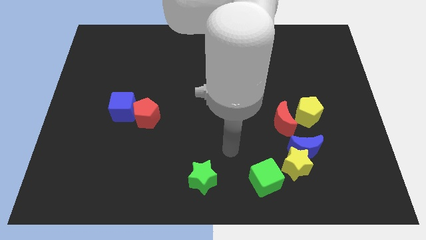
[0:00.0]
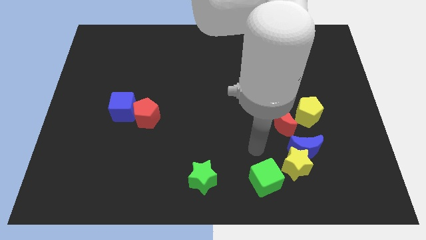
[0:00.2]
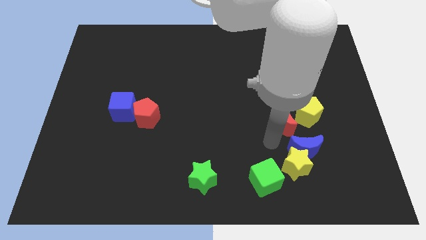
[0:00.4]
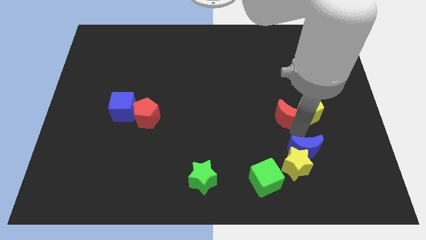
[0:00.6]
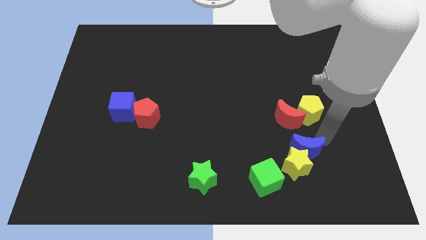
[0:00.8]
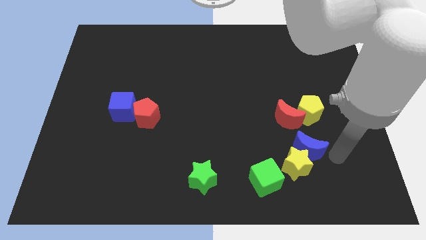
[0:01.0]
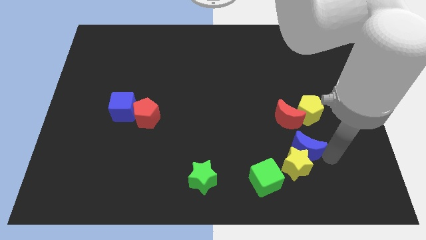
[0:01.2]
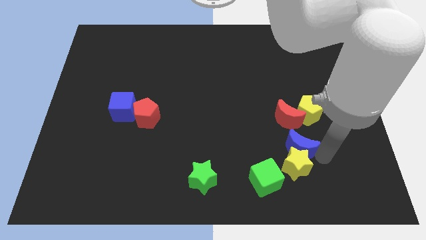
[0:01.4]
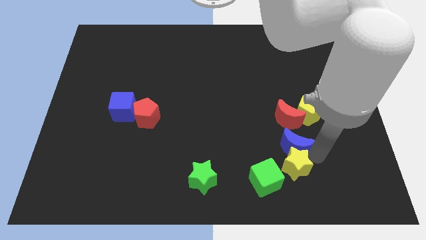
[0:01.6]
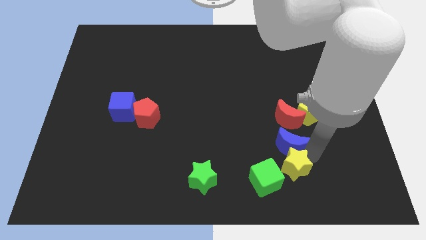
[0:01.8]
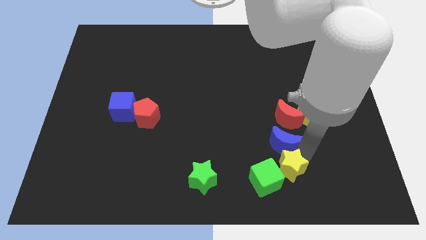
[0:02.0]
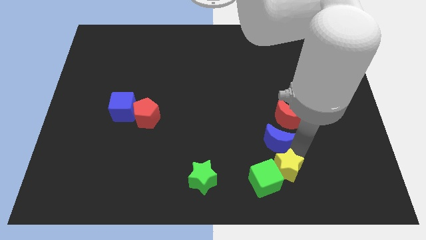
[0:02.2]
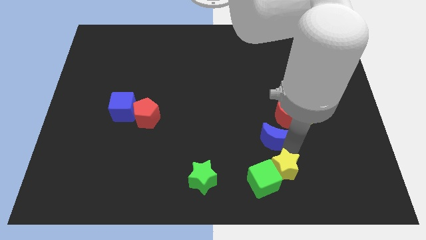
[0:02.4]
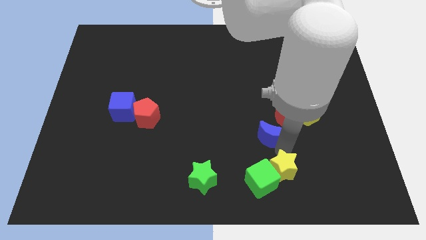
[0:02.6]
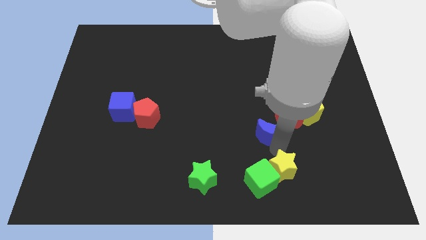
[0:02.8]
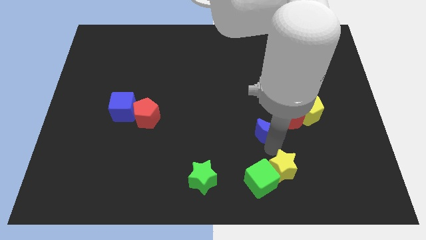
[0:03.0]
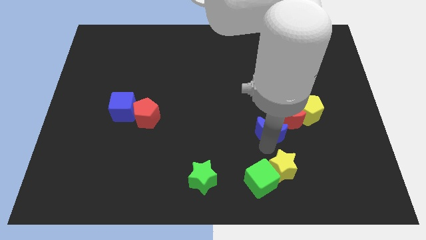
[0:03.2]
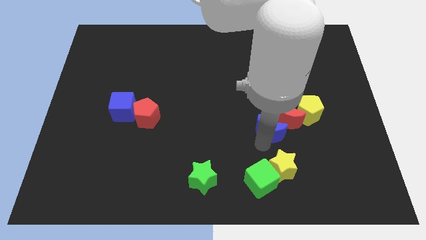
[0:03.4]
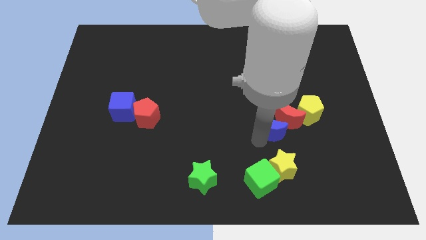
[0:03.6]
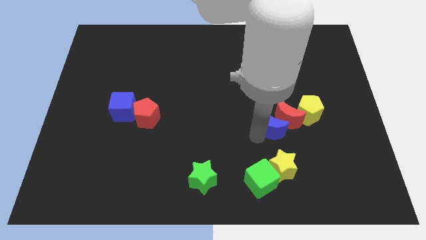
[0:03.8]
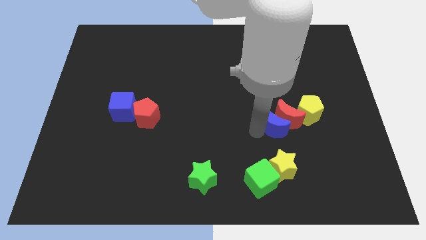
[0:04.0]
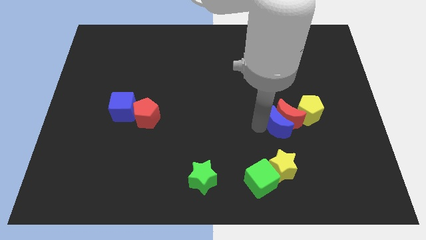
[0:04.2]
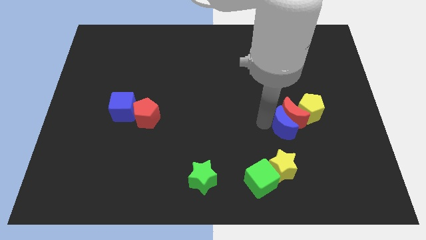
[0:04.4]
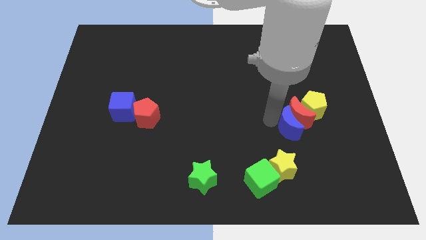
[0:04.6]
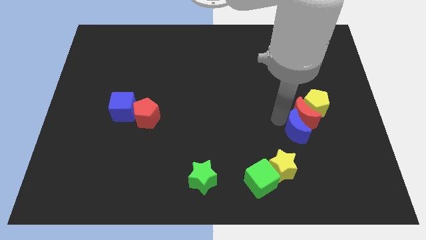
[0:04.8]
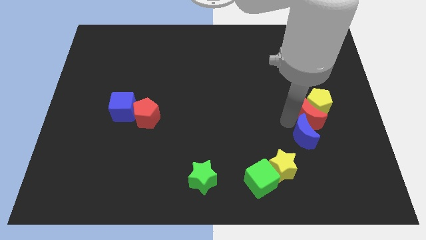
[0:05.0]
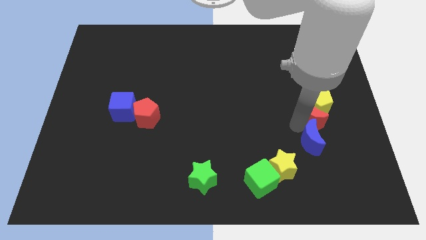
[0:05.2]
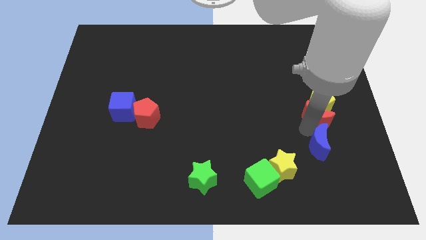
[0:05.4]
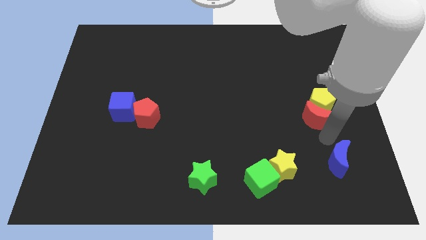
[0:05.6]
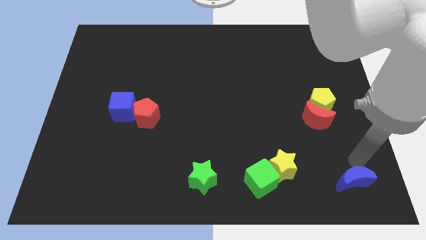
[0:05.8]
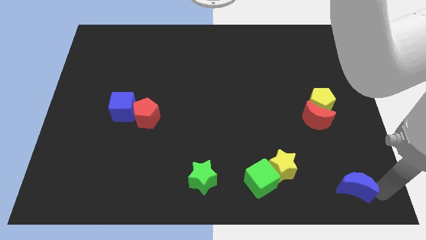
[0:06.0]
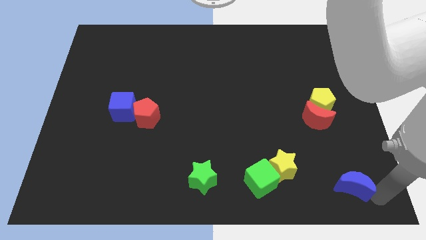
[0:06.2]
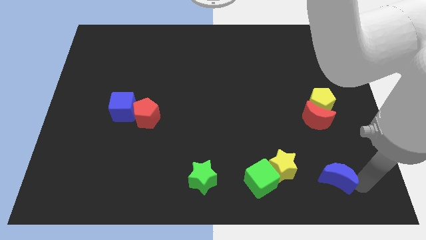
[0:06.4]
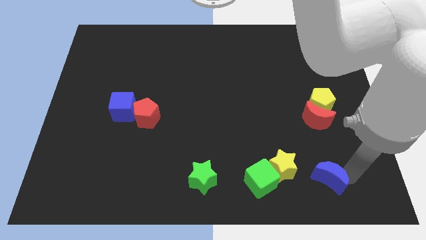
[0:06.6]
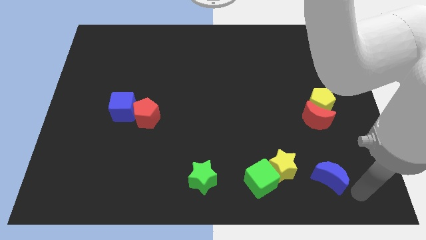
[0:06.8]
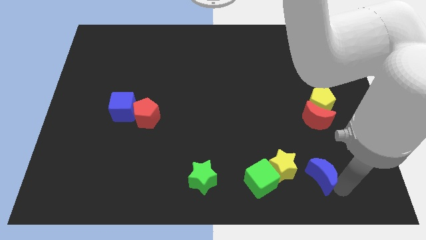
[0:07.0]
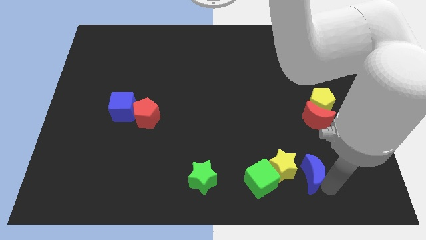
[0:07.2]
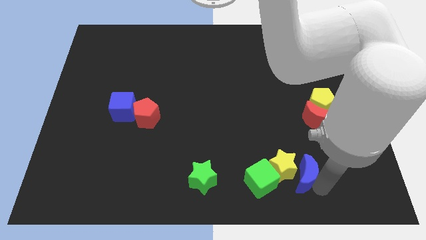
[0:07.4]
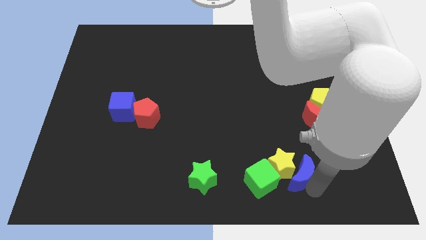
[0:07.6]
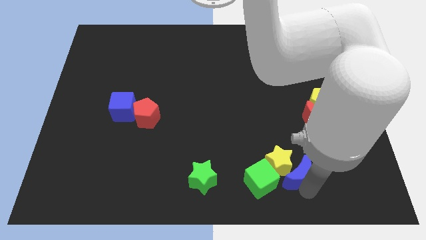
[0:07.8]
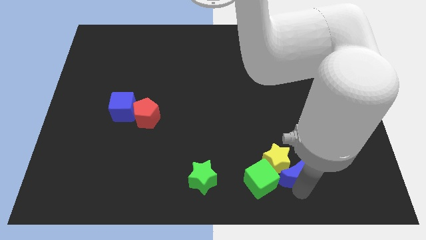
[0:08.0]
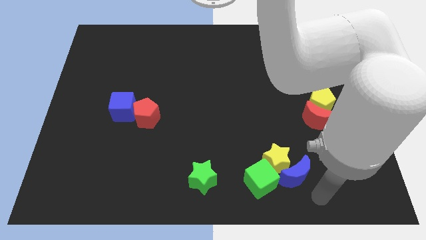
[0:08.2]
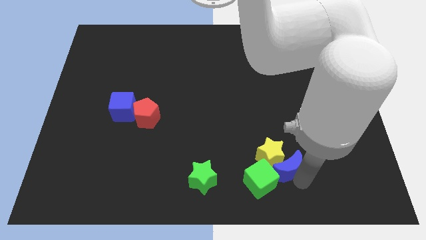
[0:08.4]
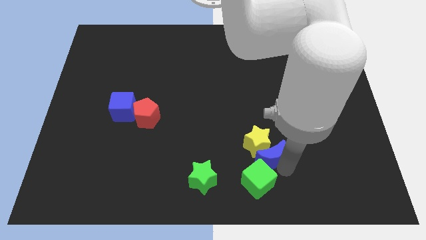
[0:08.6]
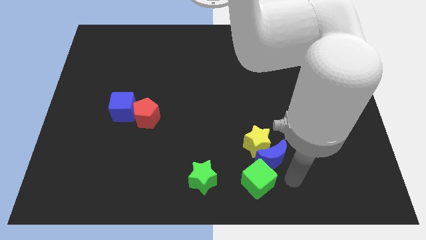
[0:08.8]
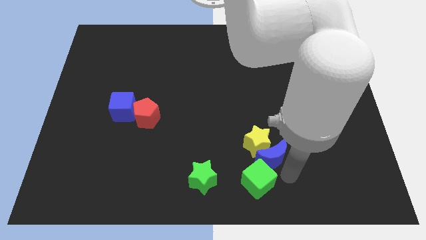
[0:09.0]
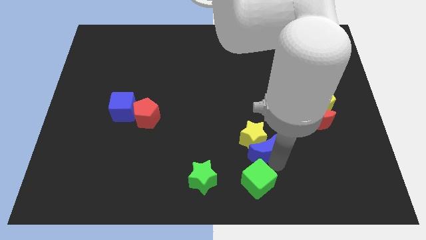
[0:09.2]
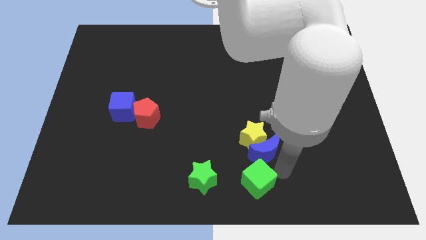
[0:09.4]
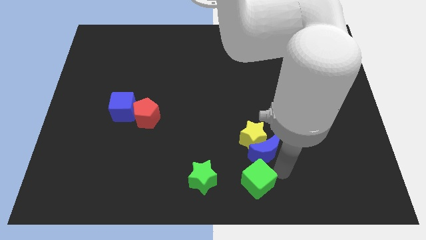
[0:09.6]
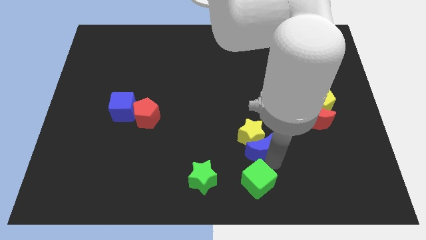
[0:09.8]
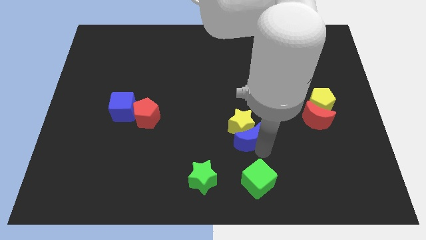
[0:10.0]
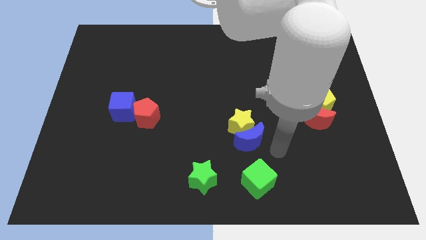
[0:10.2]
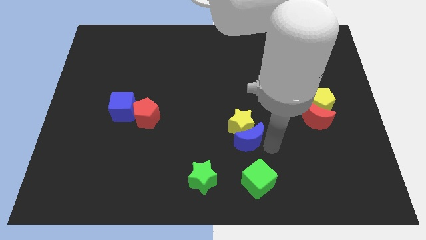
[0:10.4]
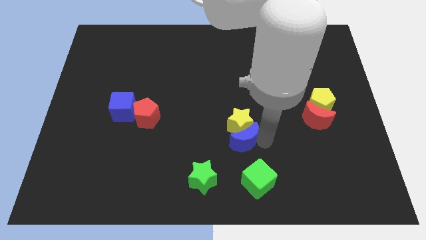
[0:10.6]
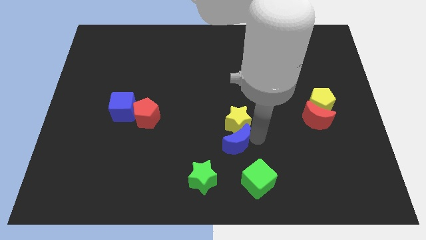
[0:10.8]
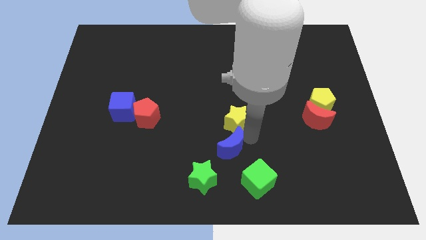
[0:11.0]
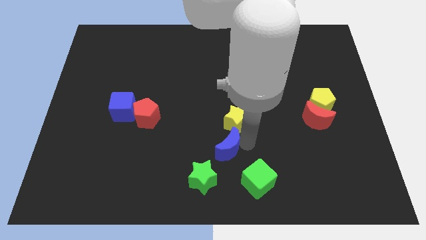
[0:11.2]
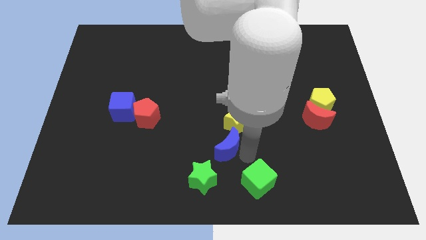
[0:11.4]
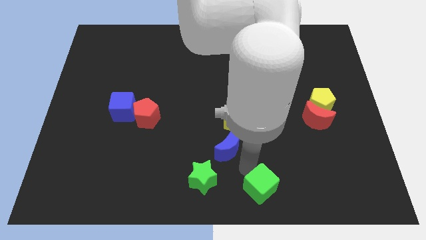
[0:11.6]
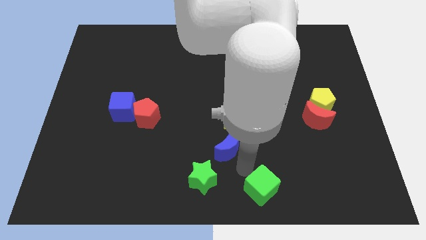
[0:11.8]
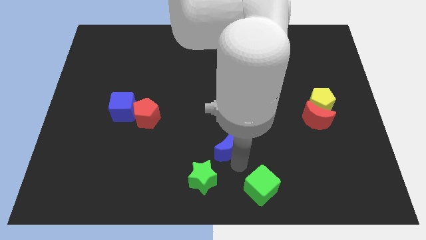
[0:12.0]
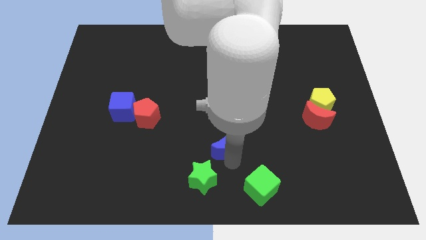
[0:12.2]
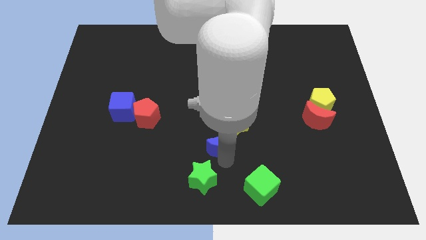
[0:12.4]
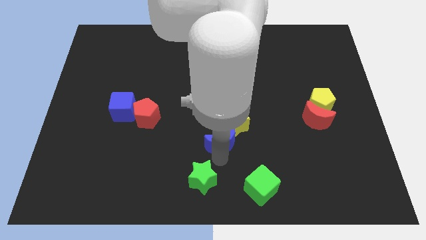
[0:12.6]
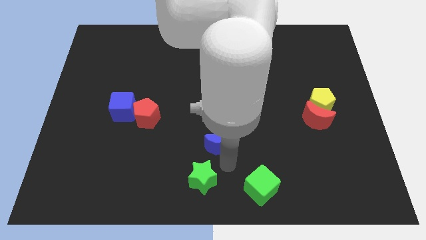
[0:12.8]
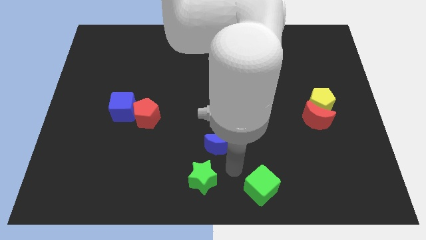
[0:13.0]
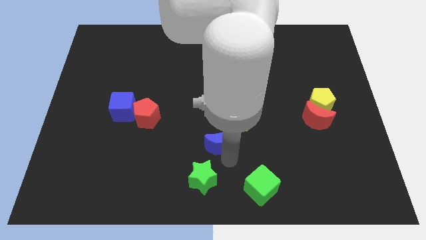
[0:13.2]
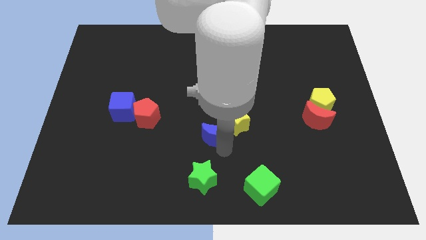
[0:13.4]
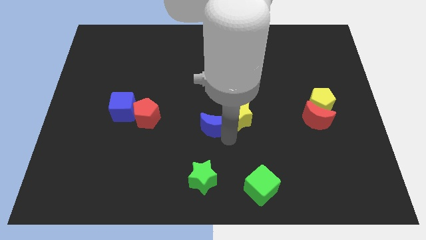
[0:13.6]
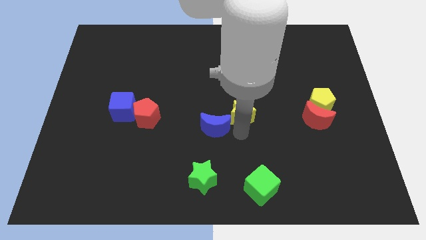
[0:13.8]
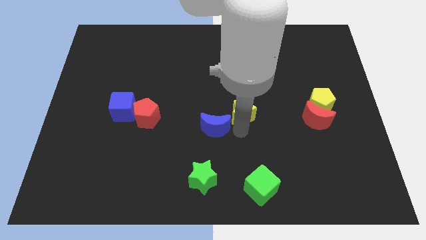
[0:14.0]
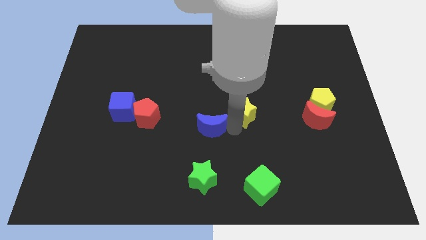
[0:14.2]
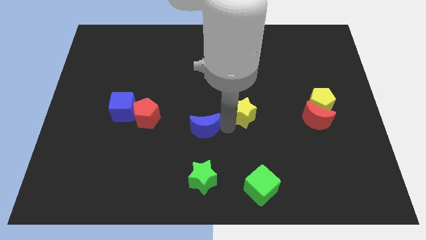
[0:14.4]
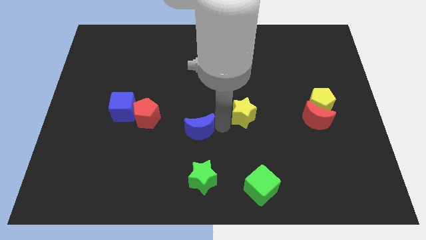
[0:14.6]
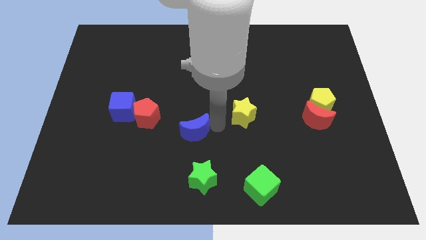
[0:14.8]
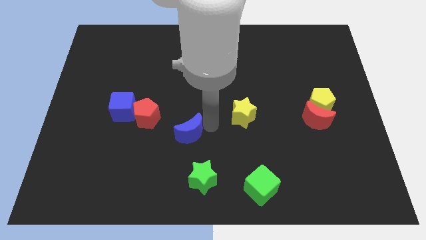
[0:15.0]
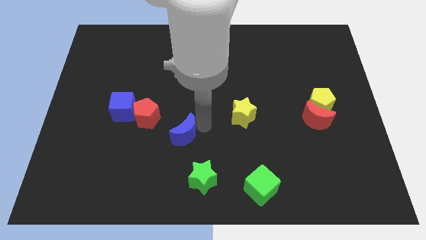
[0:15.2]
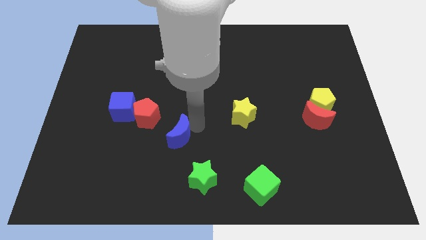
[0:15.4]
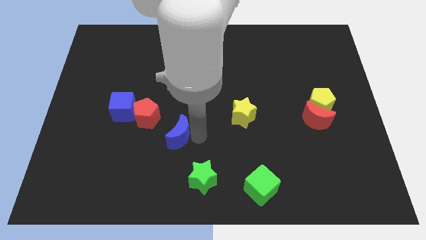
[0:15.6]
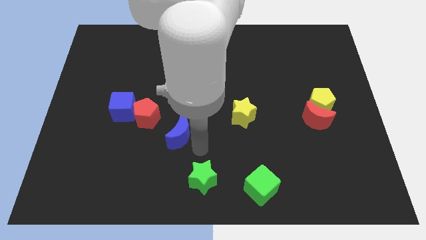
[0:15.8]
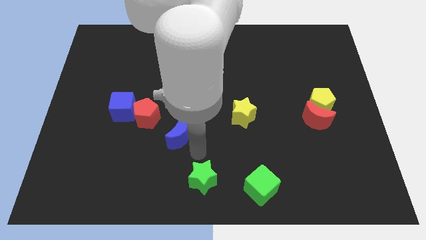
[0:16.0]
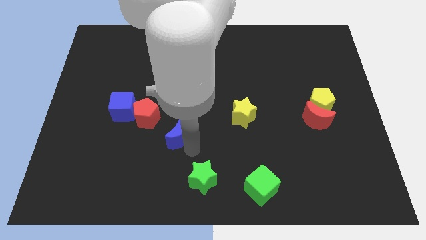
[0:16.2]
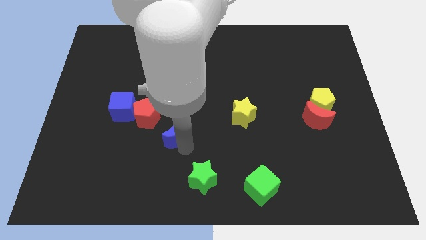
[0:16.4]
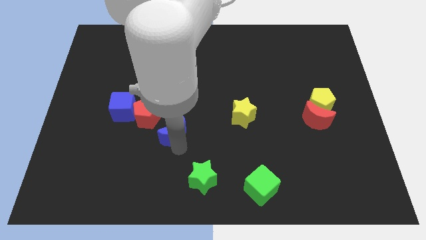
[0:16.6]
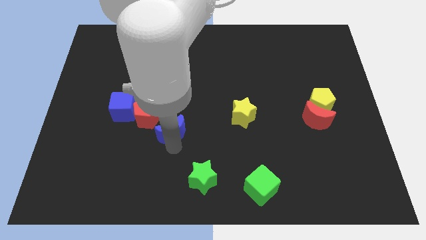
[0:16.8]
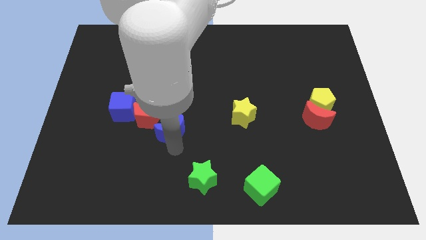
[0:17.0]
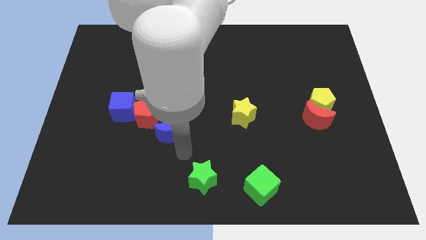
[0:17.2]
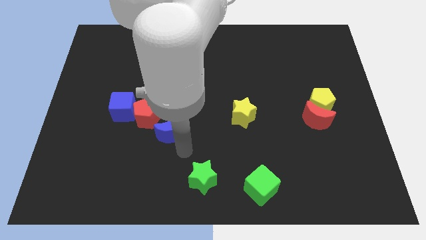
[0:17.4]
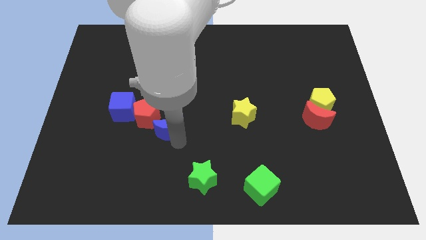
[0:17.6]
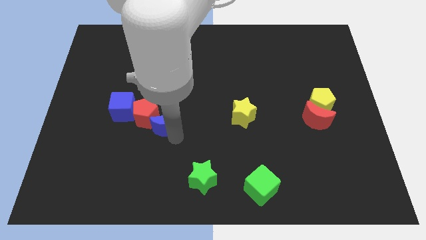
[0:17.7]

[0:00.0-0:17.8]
move the blue moon to the red pentagon
